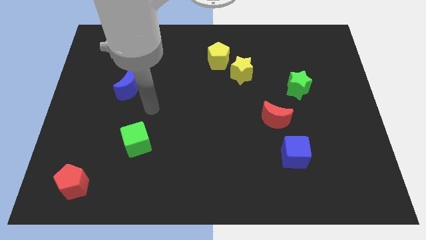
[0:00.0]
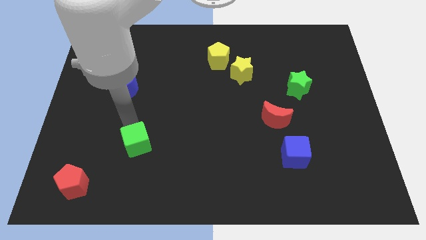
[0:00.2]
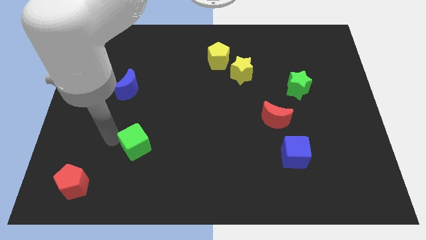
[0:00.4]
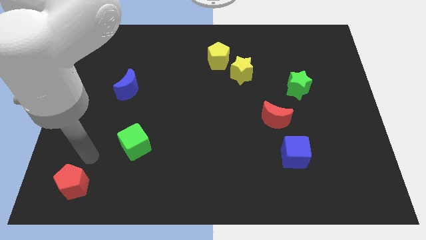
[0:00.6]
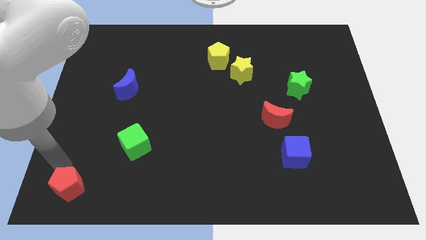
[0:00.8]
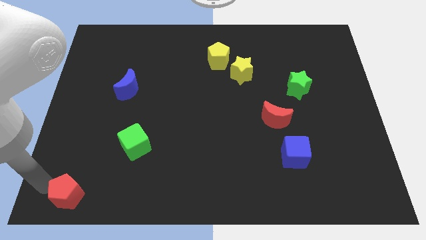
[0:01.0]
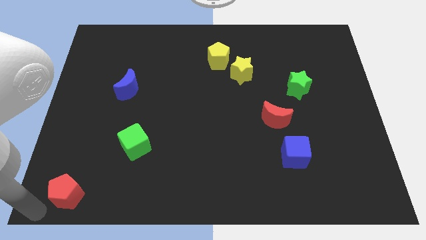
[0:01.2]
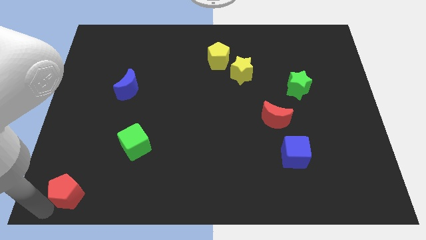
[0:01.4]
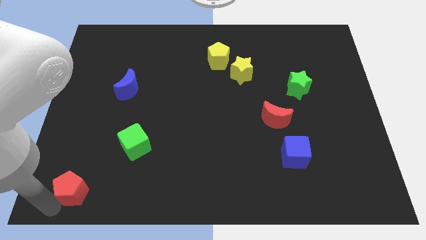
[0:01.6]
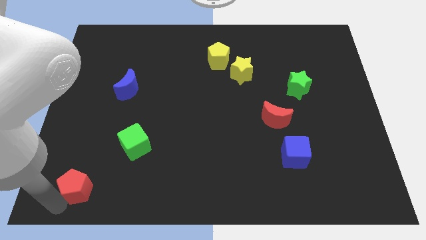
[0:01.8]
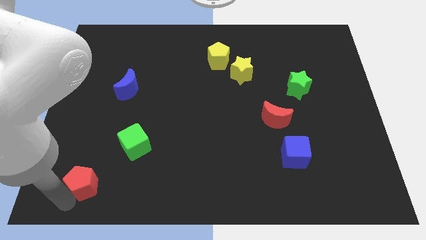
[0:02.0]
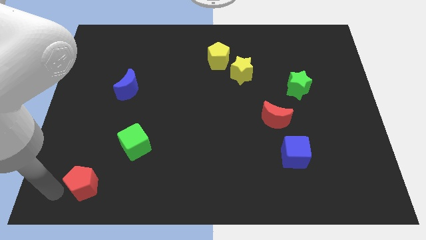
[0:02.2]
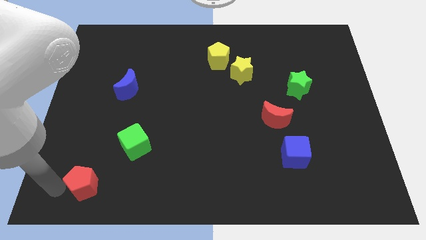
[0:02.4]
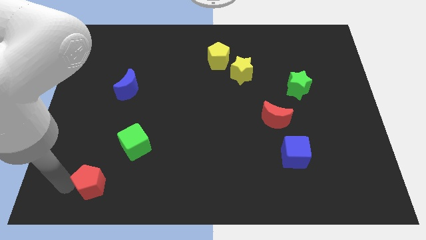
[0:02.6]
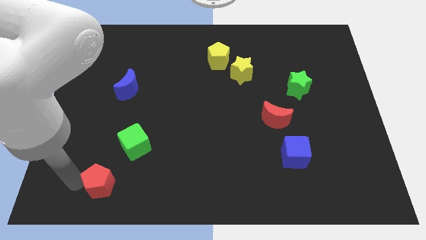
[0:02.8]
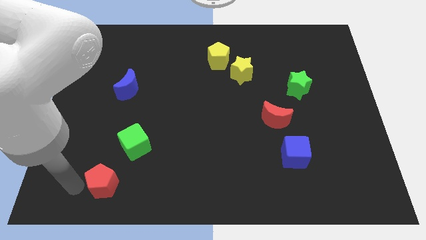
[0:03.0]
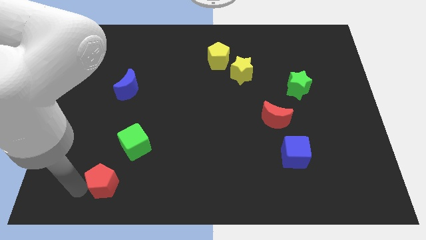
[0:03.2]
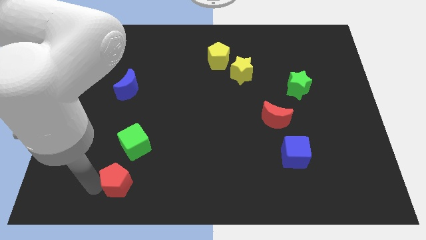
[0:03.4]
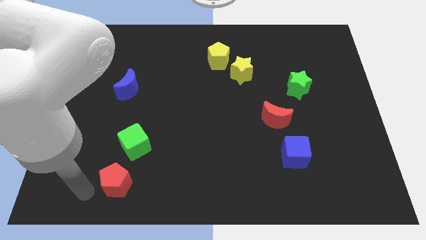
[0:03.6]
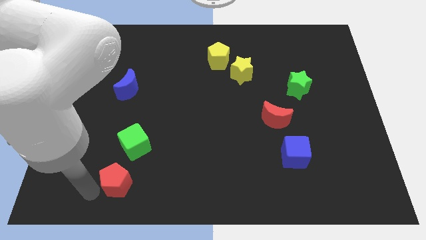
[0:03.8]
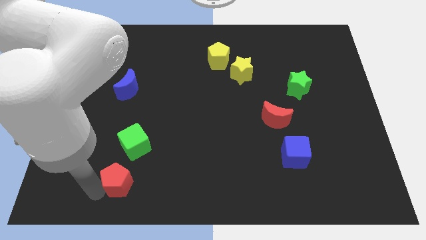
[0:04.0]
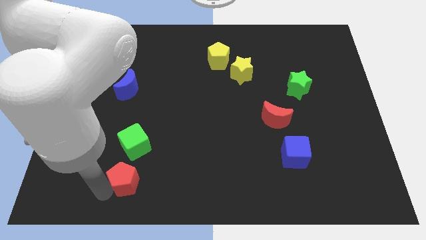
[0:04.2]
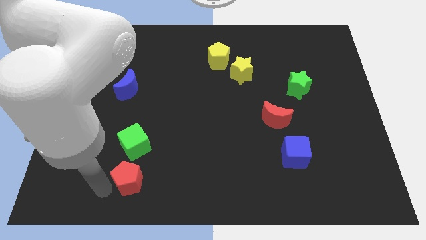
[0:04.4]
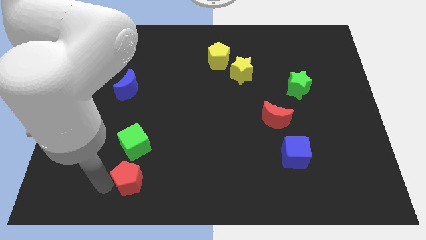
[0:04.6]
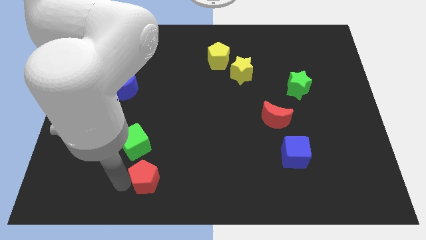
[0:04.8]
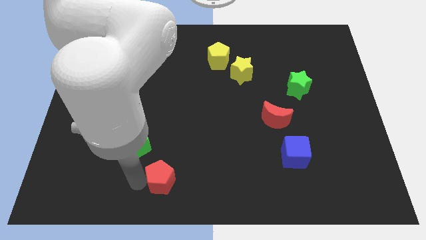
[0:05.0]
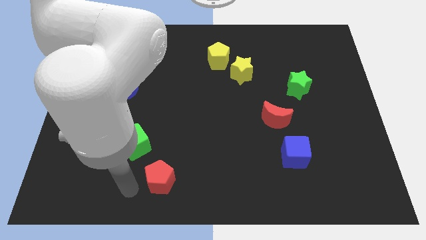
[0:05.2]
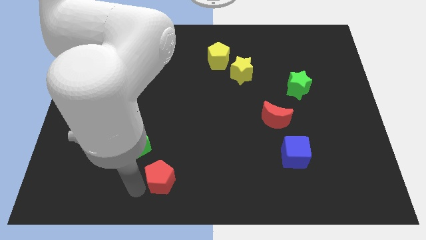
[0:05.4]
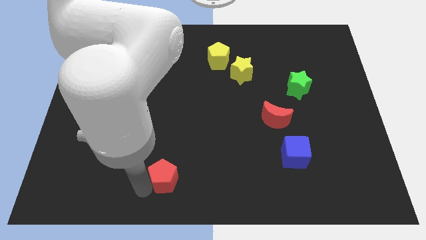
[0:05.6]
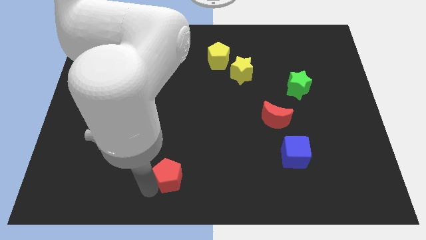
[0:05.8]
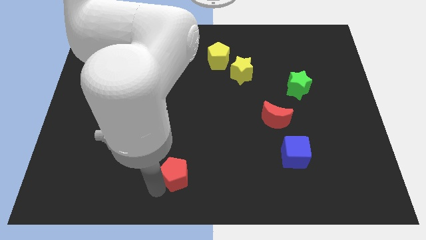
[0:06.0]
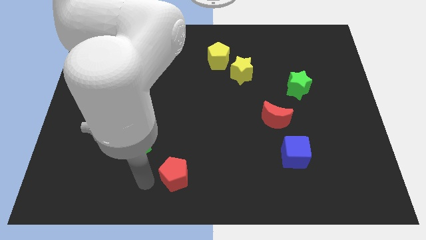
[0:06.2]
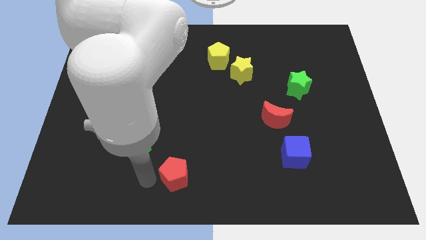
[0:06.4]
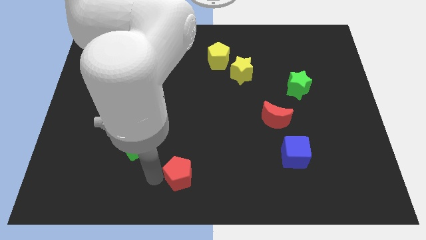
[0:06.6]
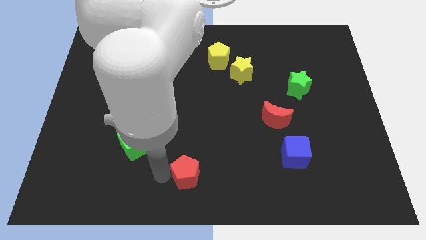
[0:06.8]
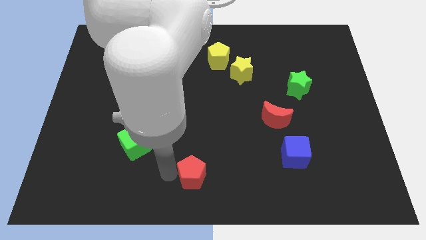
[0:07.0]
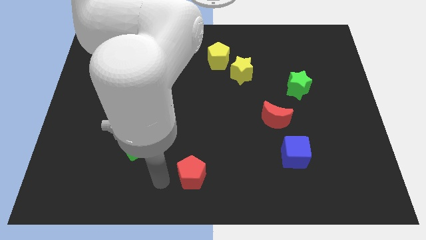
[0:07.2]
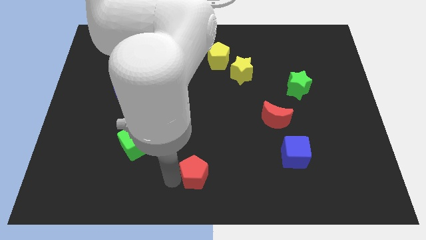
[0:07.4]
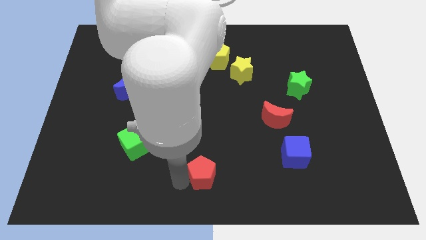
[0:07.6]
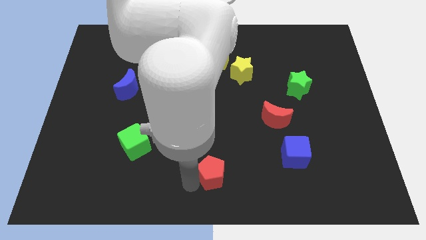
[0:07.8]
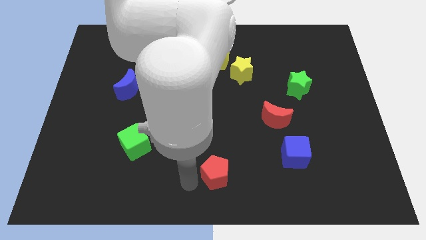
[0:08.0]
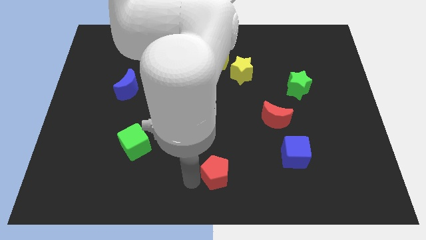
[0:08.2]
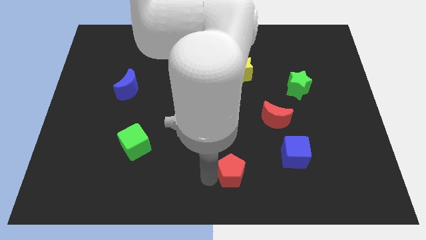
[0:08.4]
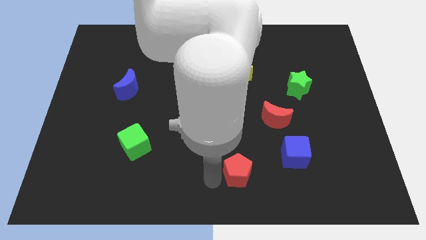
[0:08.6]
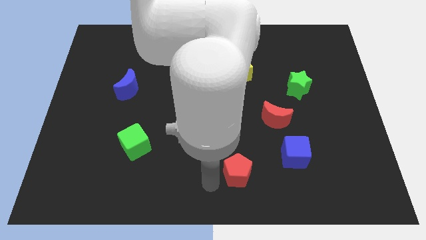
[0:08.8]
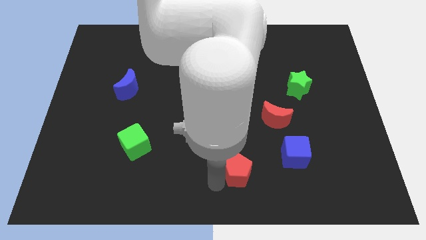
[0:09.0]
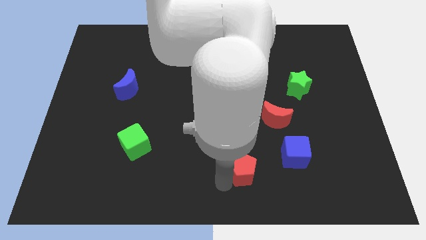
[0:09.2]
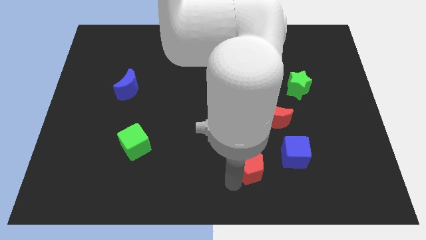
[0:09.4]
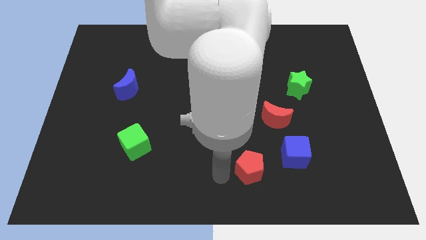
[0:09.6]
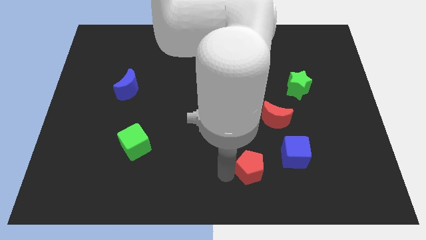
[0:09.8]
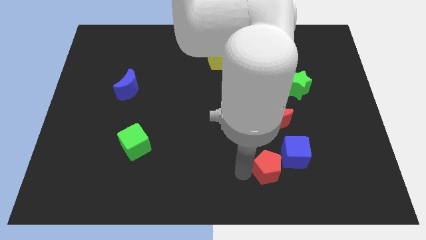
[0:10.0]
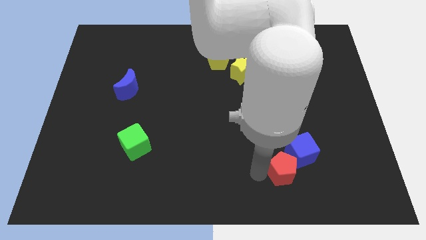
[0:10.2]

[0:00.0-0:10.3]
move the red pentagon to the blue cube

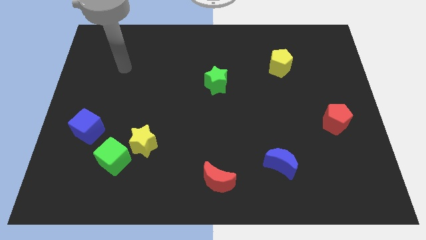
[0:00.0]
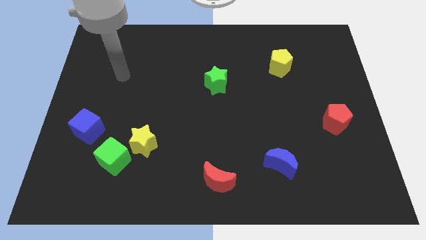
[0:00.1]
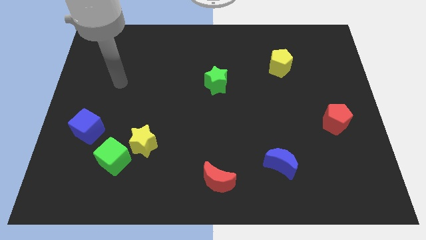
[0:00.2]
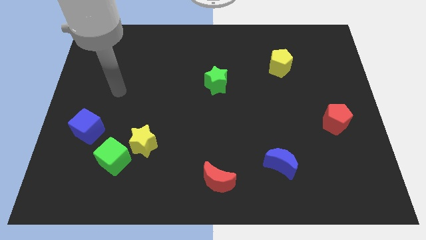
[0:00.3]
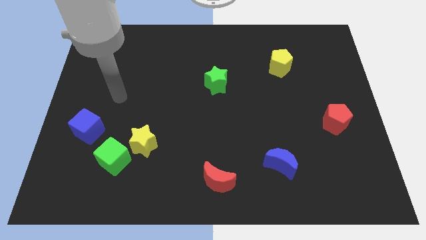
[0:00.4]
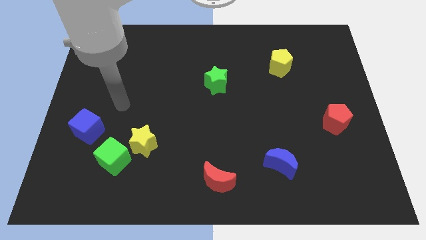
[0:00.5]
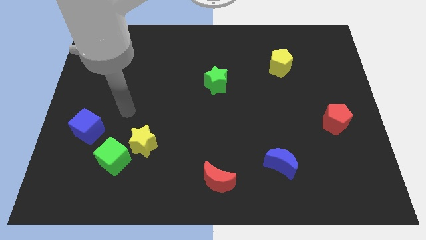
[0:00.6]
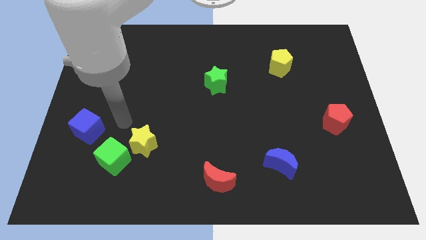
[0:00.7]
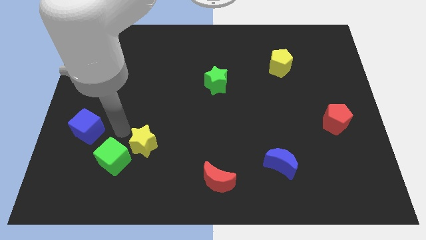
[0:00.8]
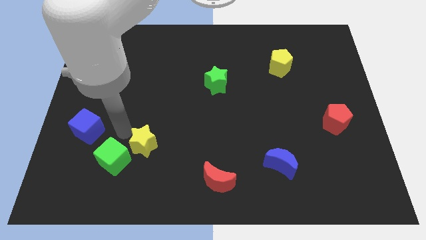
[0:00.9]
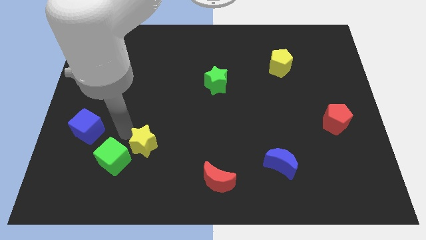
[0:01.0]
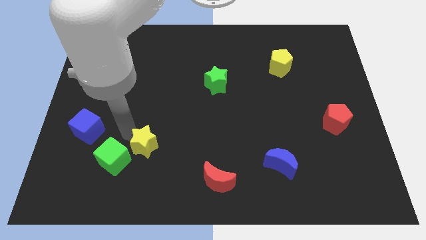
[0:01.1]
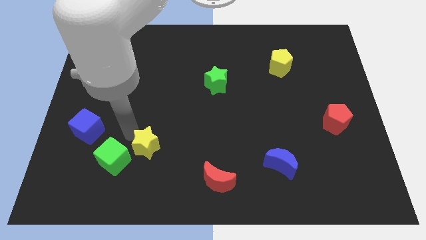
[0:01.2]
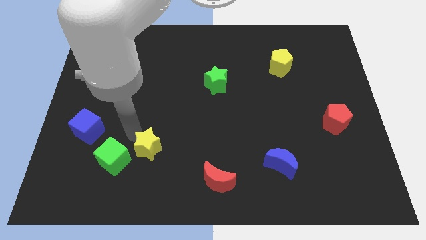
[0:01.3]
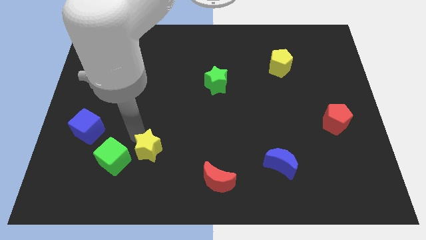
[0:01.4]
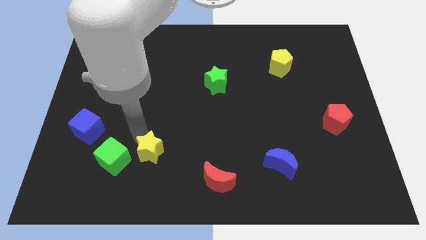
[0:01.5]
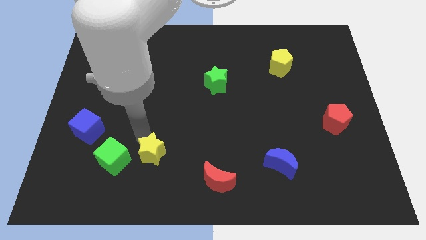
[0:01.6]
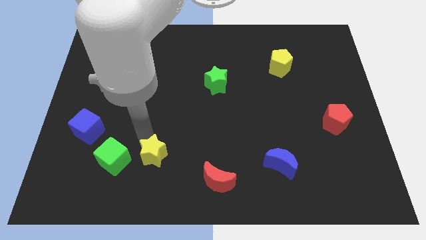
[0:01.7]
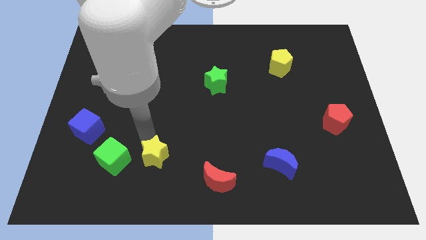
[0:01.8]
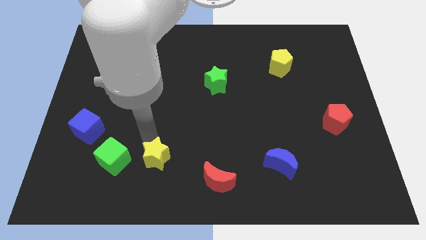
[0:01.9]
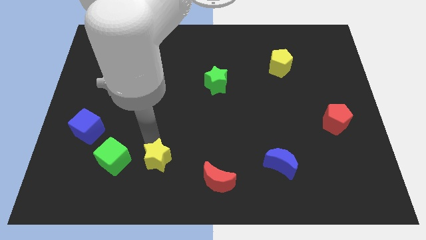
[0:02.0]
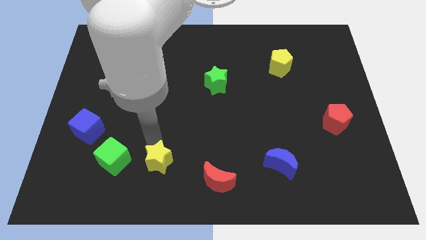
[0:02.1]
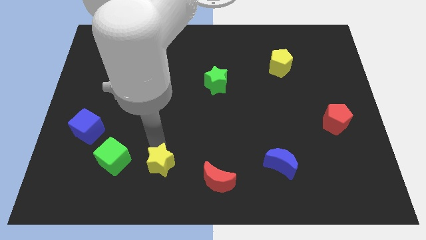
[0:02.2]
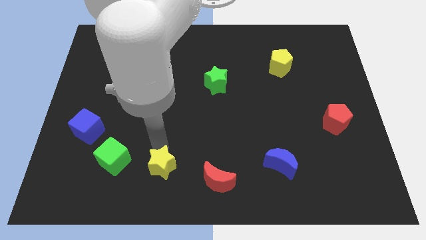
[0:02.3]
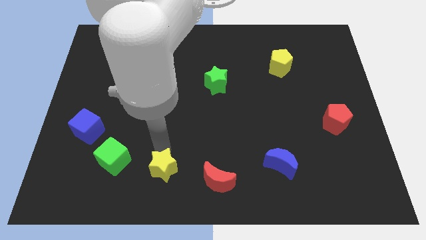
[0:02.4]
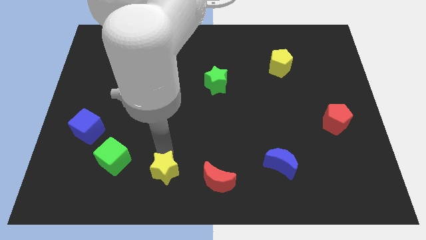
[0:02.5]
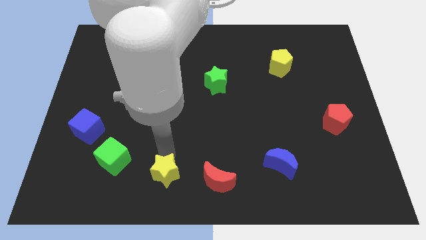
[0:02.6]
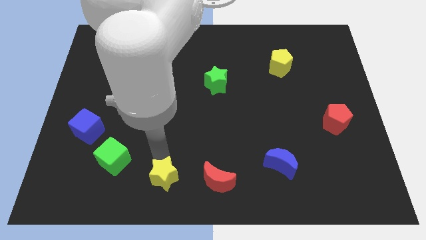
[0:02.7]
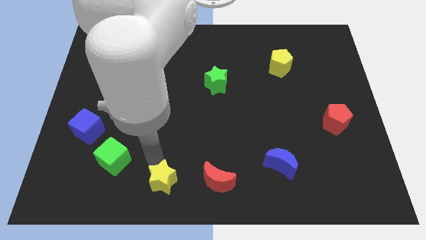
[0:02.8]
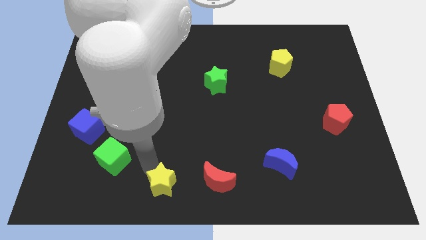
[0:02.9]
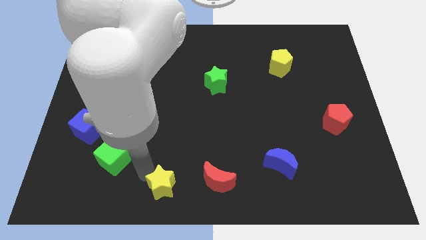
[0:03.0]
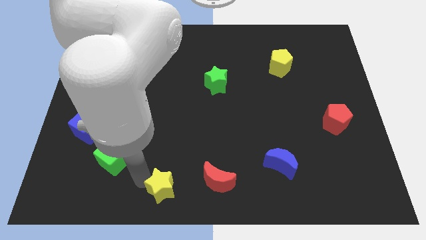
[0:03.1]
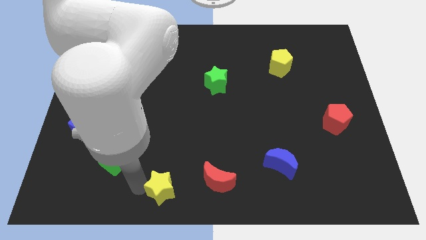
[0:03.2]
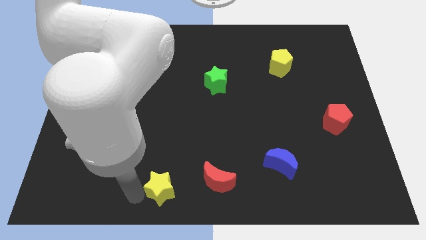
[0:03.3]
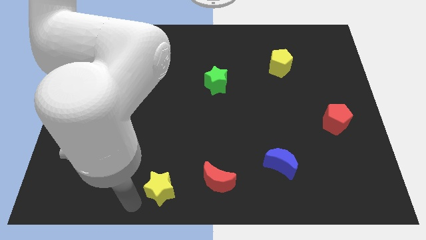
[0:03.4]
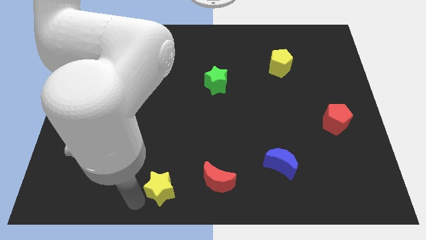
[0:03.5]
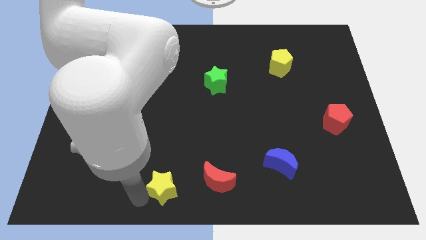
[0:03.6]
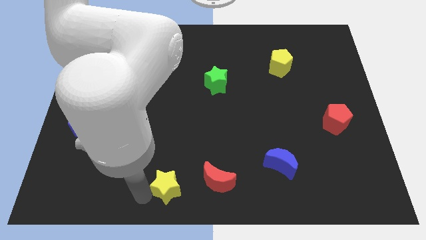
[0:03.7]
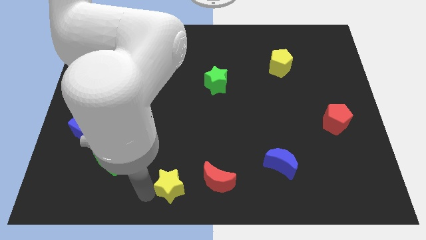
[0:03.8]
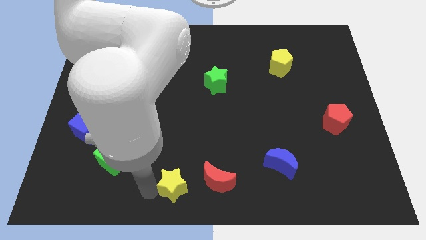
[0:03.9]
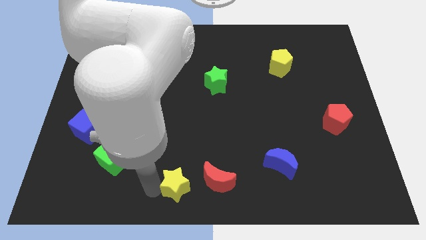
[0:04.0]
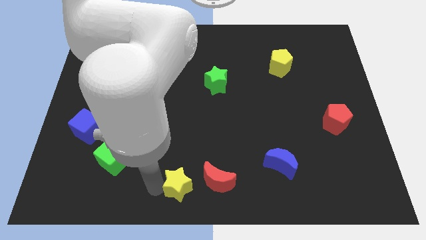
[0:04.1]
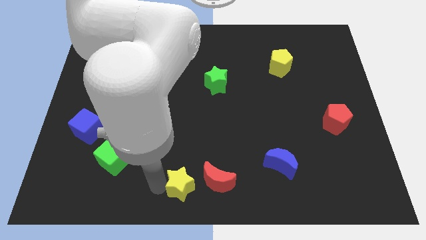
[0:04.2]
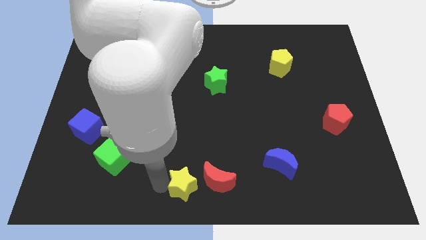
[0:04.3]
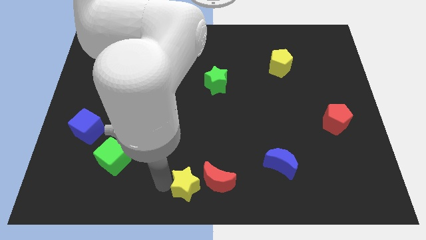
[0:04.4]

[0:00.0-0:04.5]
slide the yellow star next to the red moon
